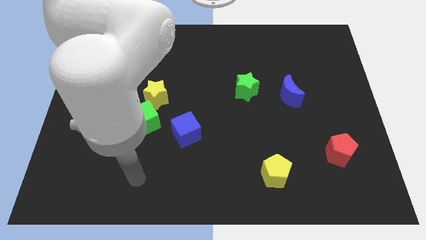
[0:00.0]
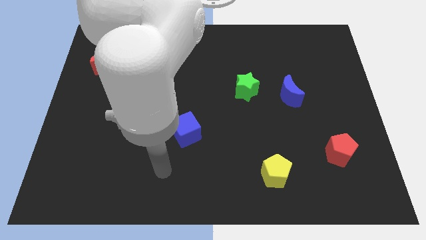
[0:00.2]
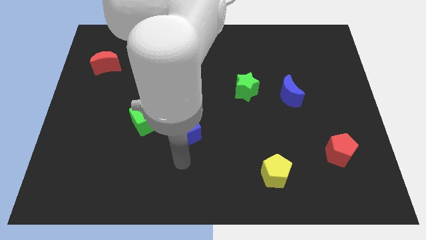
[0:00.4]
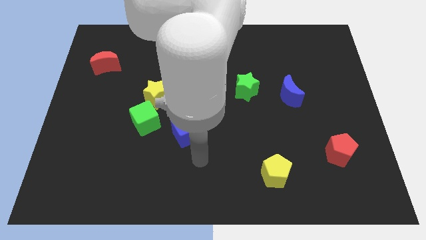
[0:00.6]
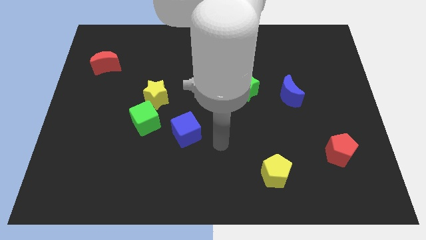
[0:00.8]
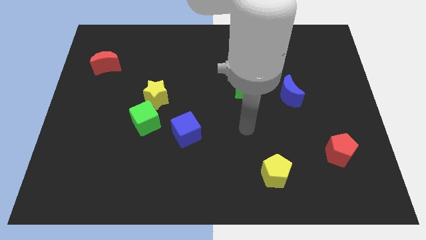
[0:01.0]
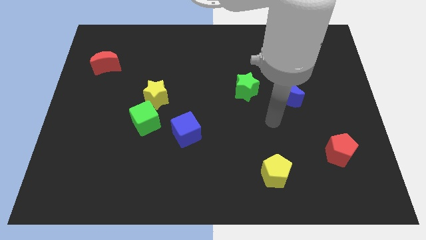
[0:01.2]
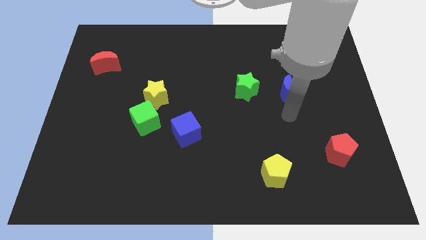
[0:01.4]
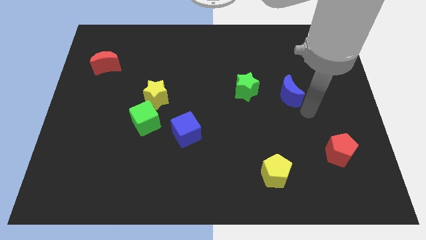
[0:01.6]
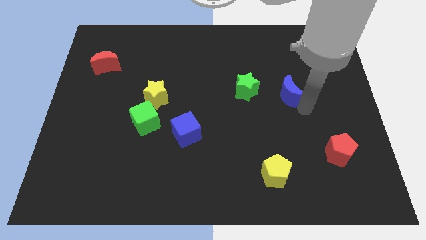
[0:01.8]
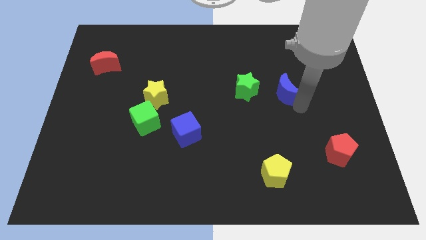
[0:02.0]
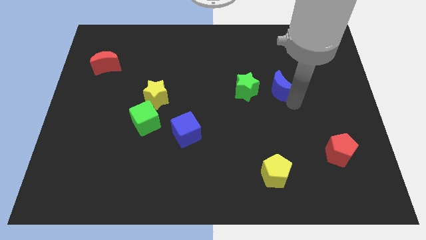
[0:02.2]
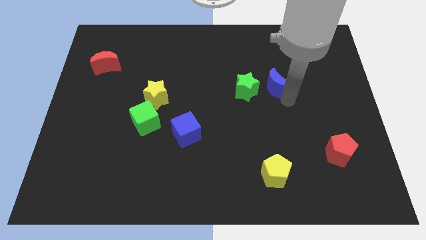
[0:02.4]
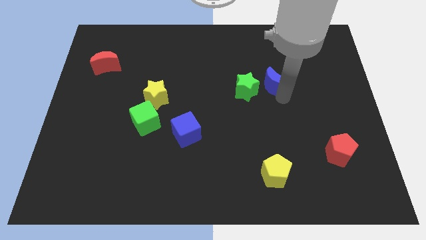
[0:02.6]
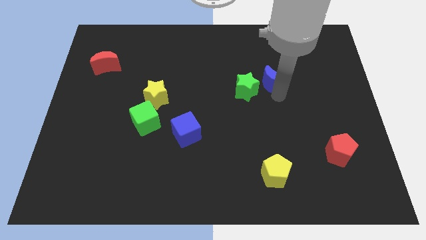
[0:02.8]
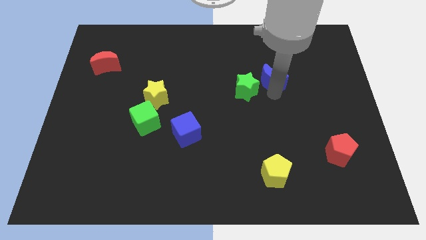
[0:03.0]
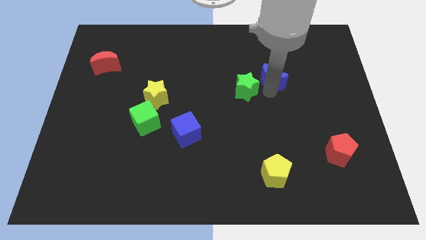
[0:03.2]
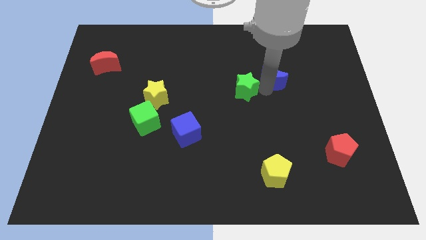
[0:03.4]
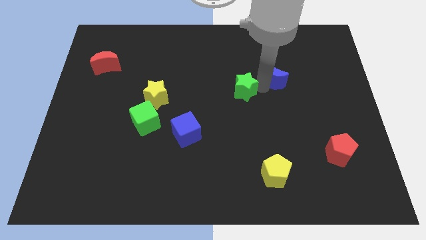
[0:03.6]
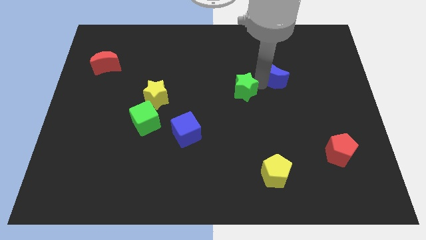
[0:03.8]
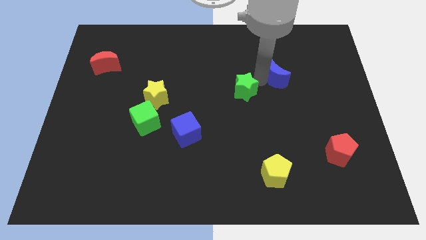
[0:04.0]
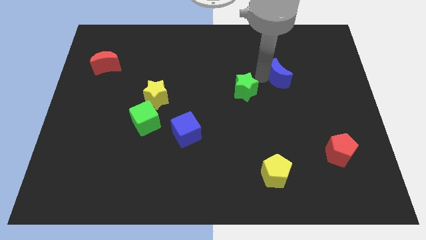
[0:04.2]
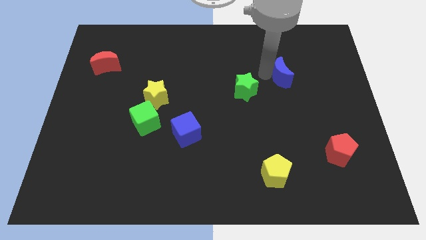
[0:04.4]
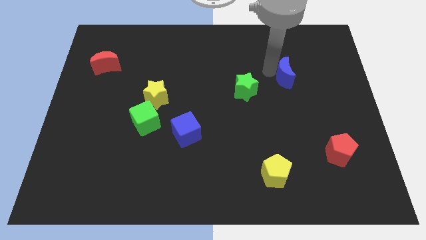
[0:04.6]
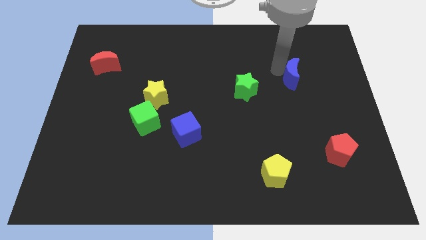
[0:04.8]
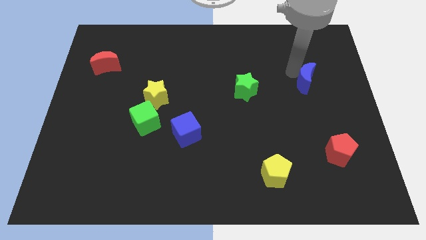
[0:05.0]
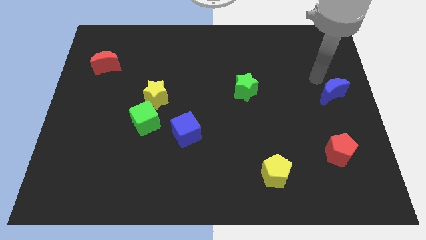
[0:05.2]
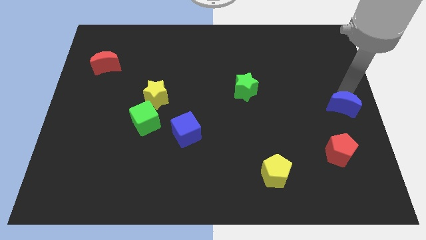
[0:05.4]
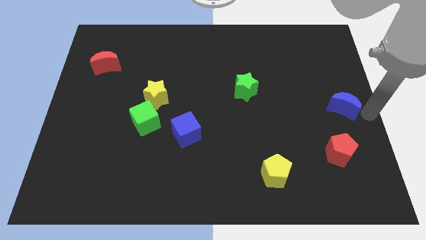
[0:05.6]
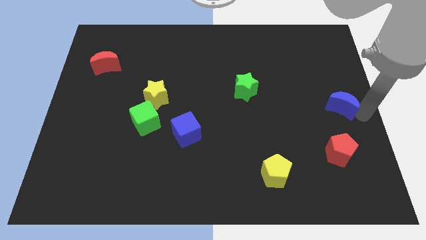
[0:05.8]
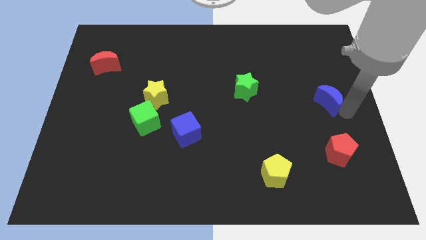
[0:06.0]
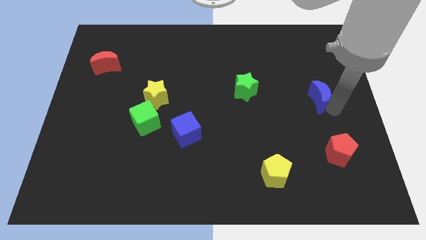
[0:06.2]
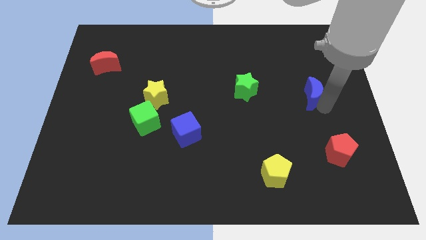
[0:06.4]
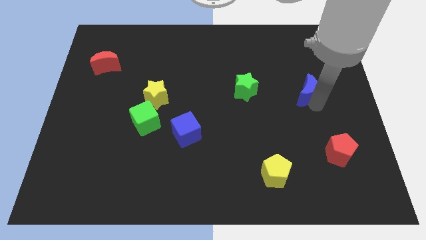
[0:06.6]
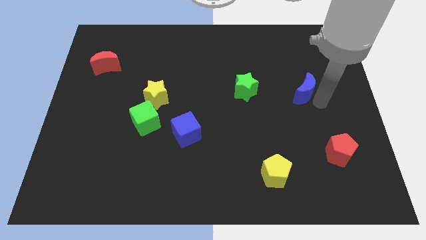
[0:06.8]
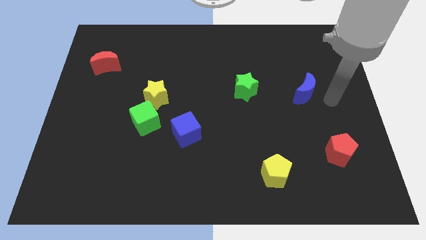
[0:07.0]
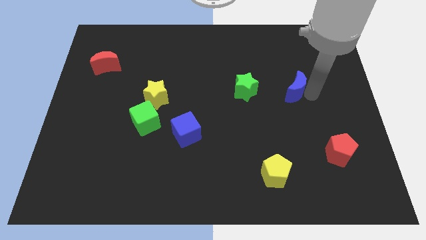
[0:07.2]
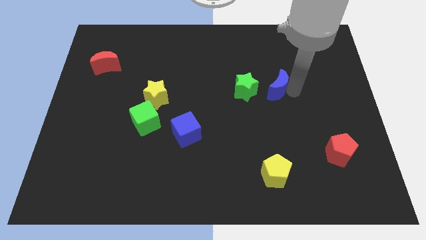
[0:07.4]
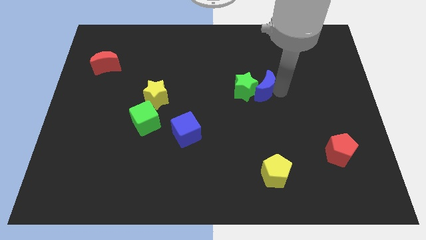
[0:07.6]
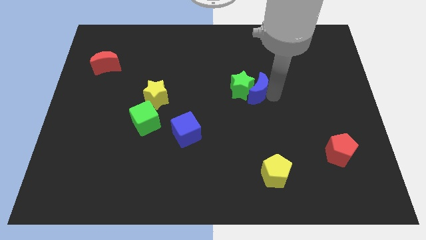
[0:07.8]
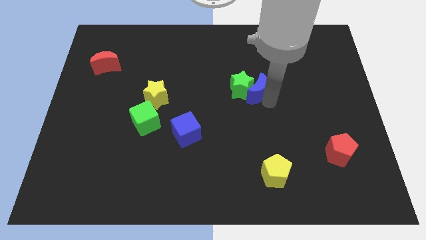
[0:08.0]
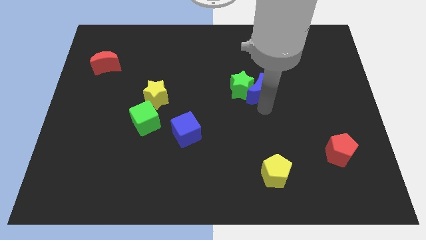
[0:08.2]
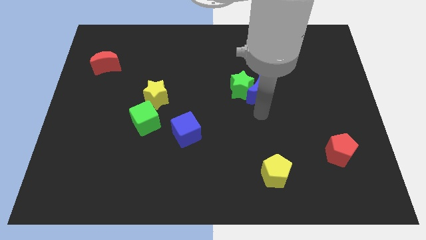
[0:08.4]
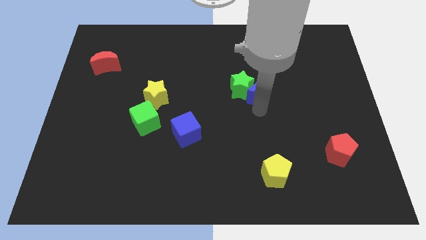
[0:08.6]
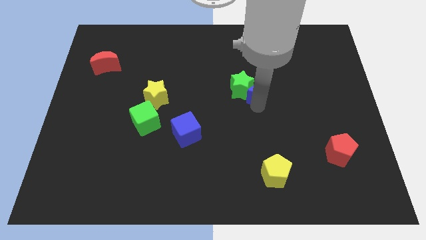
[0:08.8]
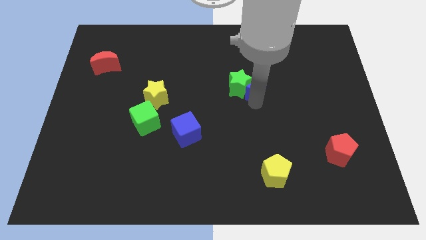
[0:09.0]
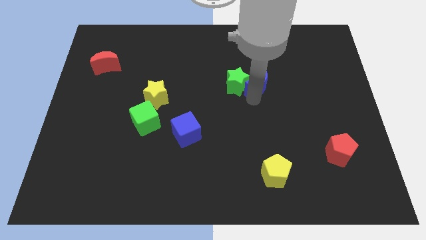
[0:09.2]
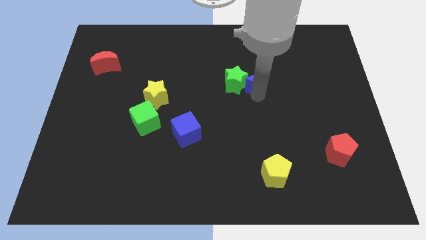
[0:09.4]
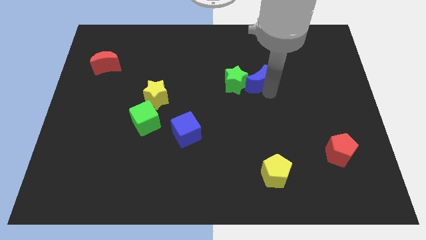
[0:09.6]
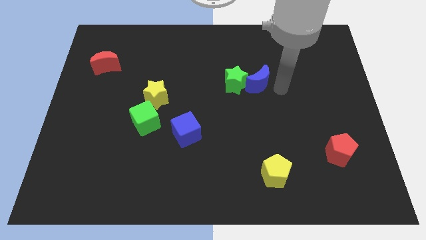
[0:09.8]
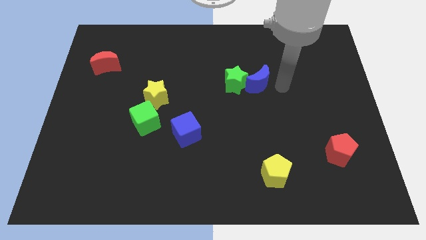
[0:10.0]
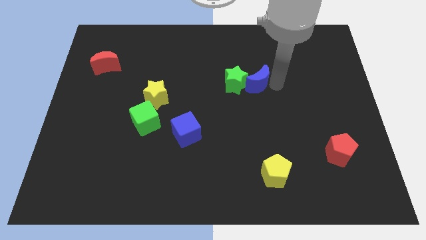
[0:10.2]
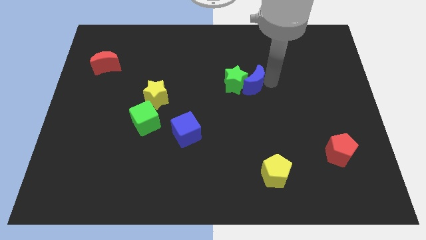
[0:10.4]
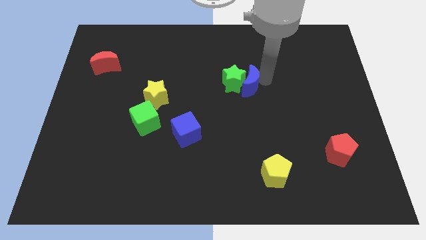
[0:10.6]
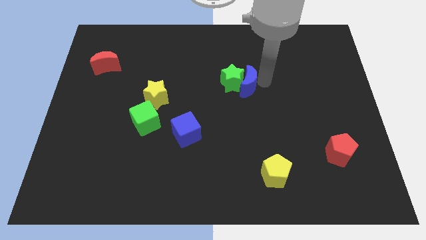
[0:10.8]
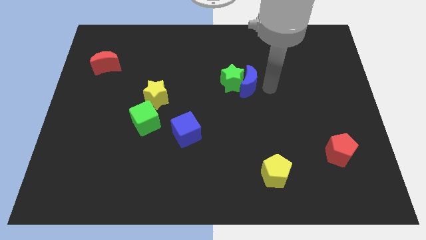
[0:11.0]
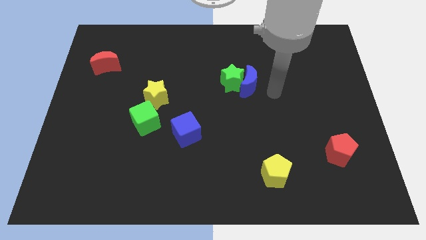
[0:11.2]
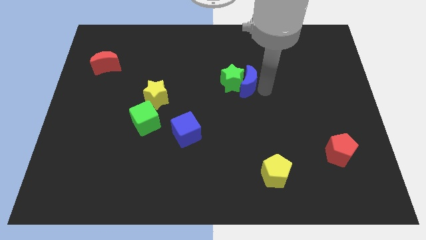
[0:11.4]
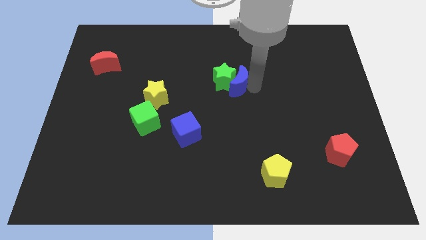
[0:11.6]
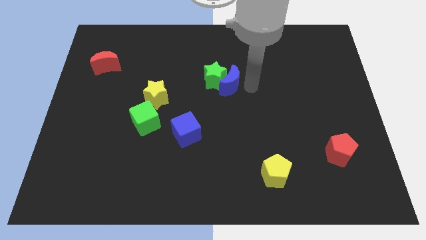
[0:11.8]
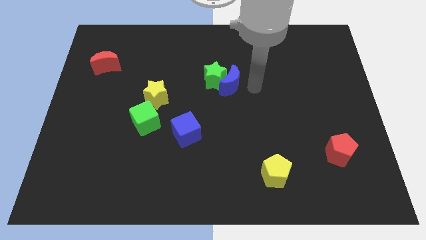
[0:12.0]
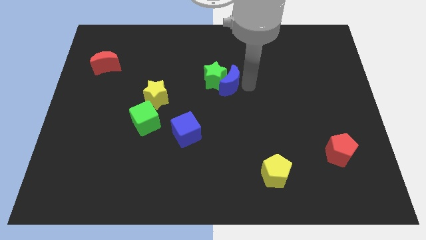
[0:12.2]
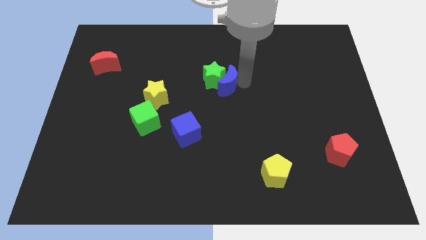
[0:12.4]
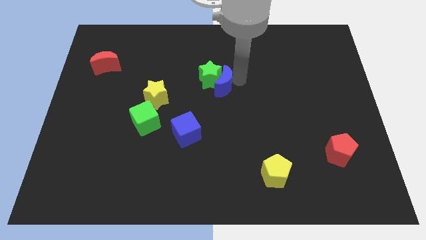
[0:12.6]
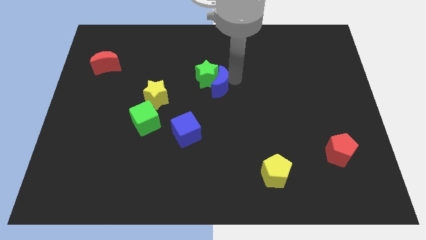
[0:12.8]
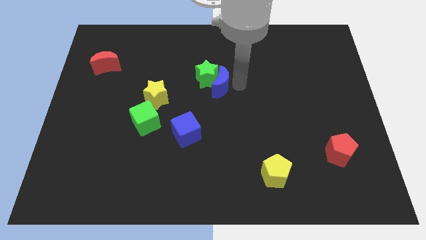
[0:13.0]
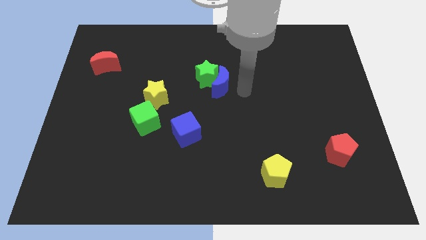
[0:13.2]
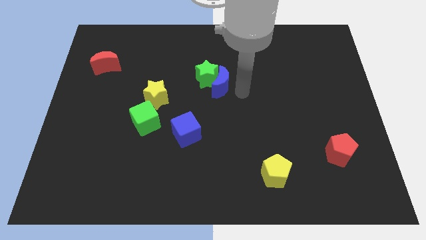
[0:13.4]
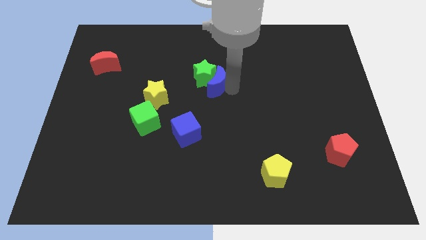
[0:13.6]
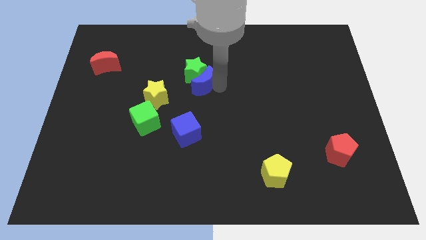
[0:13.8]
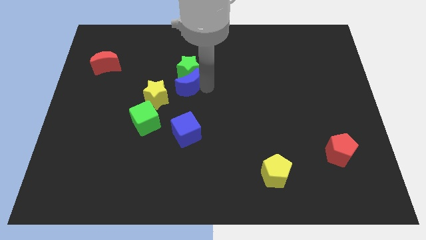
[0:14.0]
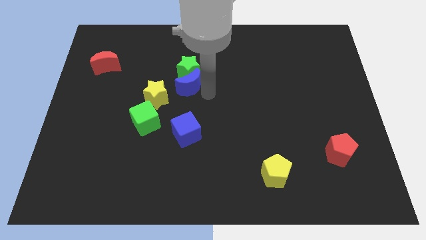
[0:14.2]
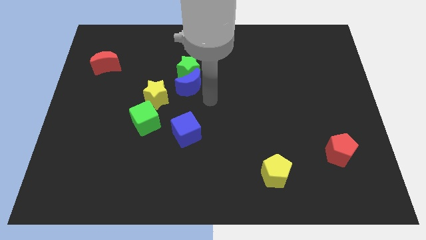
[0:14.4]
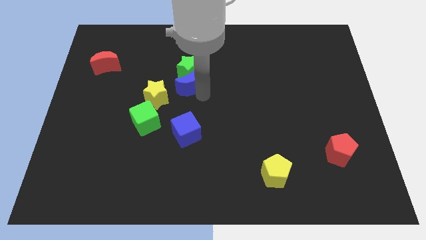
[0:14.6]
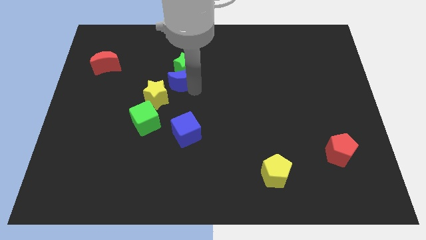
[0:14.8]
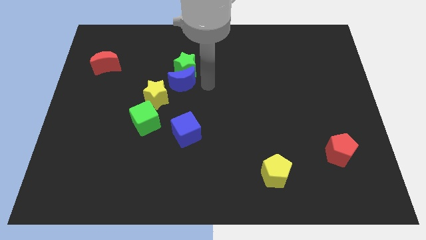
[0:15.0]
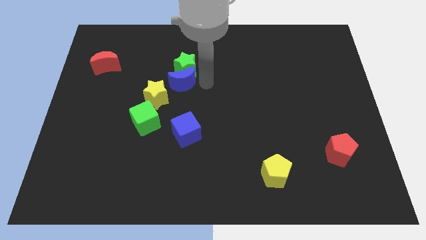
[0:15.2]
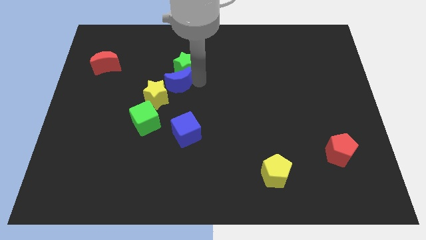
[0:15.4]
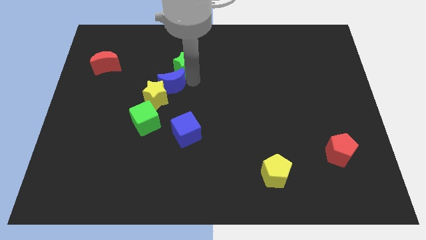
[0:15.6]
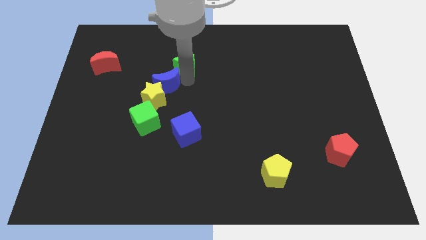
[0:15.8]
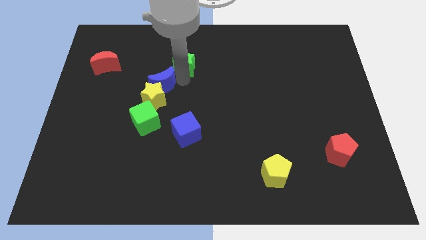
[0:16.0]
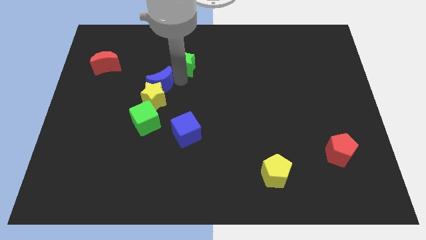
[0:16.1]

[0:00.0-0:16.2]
push the blue moon to the top left side of the yellow star

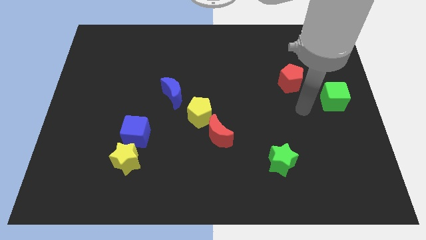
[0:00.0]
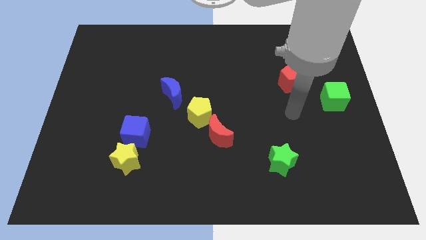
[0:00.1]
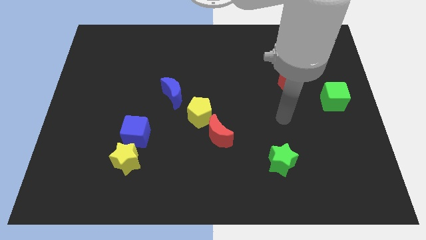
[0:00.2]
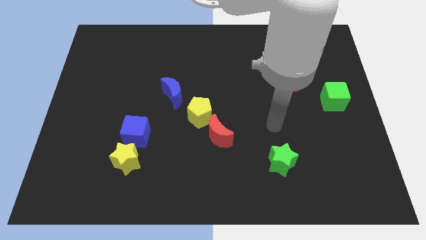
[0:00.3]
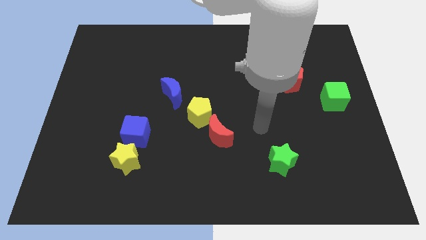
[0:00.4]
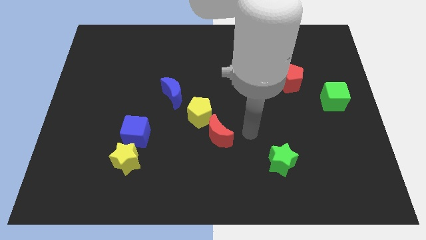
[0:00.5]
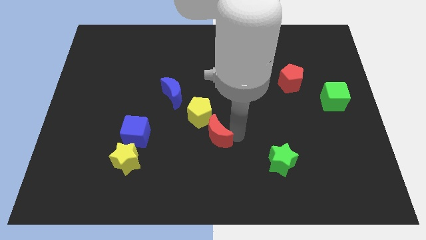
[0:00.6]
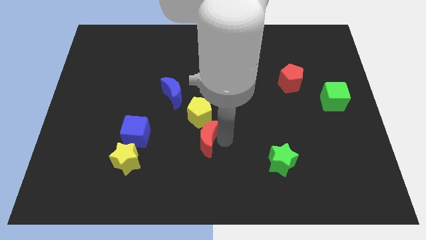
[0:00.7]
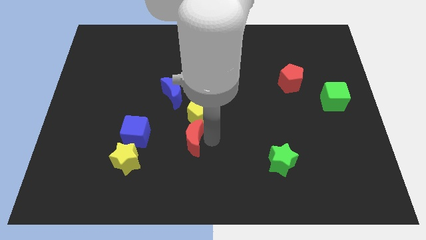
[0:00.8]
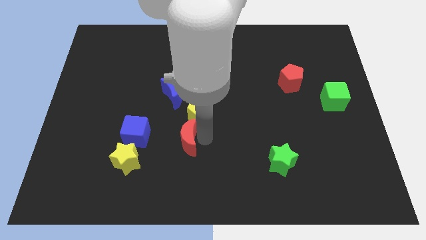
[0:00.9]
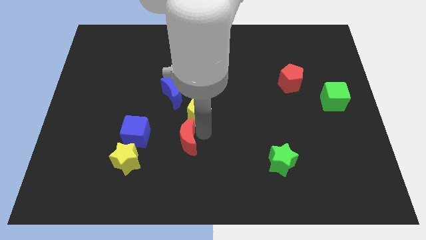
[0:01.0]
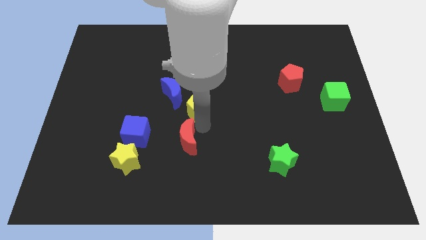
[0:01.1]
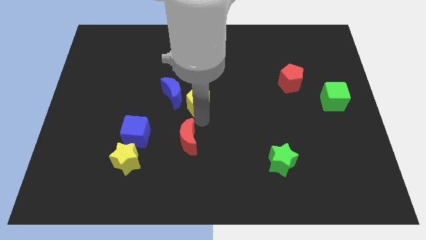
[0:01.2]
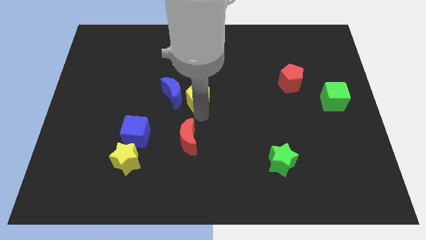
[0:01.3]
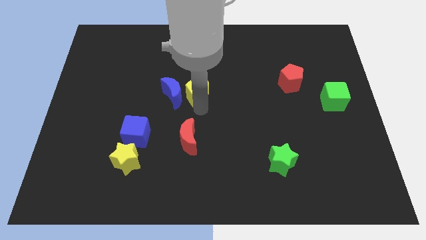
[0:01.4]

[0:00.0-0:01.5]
move the yellow pentagon diagonally up and to the right of the blue moon
